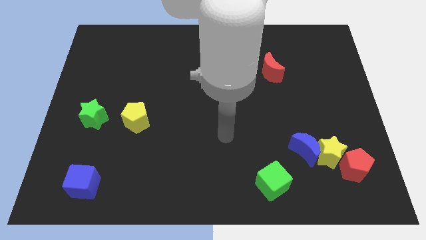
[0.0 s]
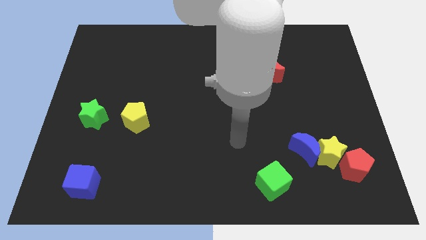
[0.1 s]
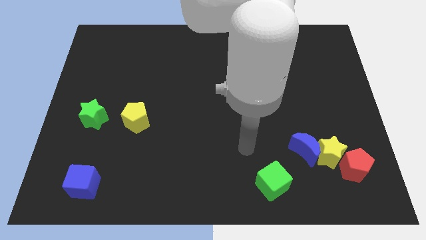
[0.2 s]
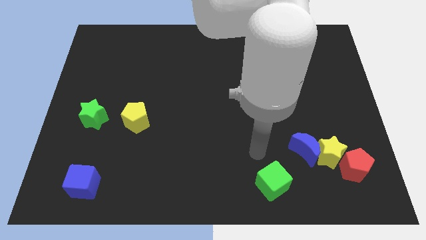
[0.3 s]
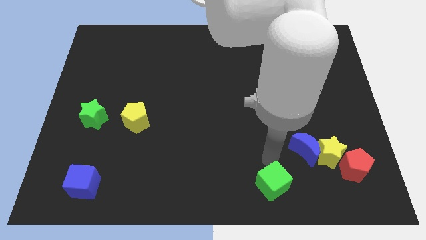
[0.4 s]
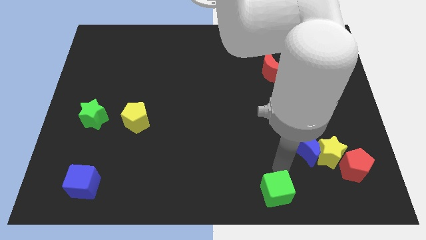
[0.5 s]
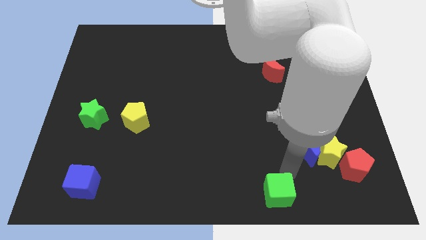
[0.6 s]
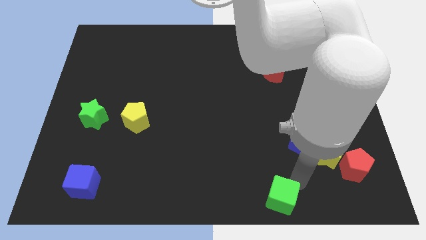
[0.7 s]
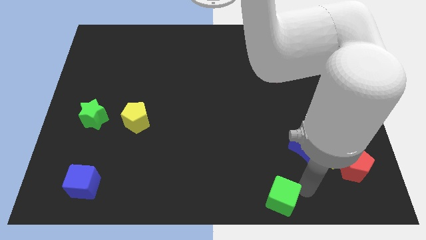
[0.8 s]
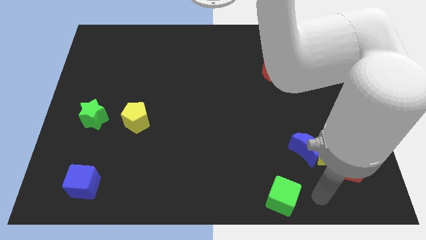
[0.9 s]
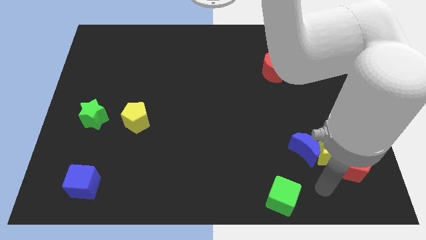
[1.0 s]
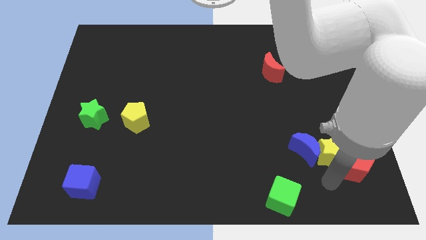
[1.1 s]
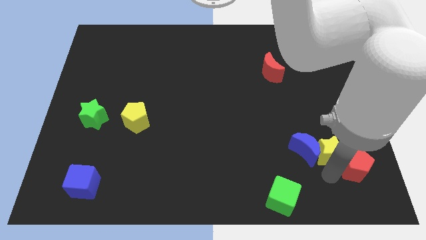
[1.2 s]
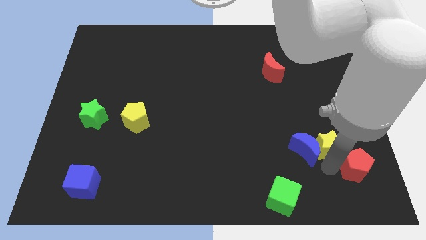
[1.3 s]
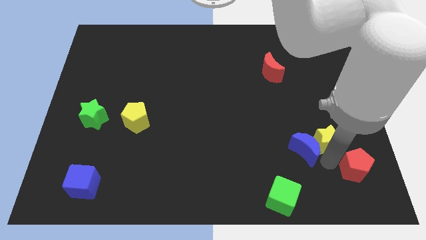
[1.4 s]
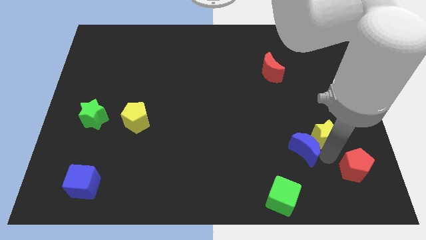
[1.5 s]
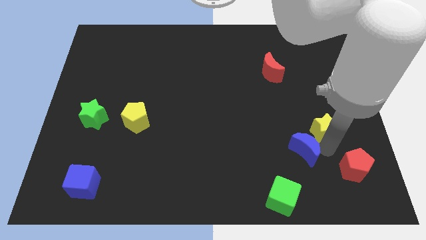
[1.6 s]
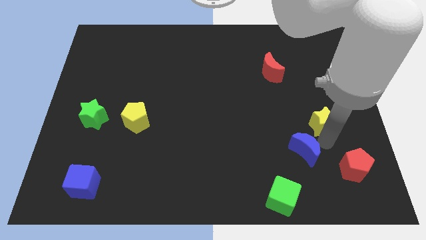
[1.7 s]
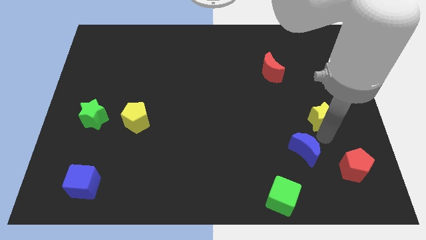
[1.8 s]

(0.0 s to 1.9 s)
pull the yellow star apart from the blue moon and red pentagon

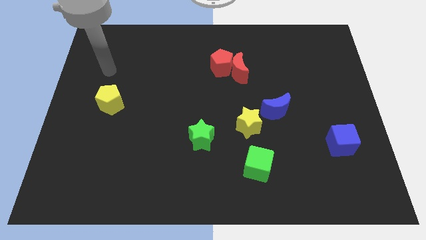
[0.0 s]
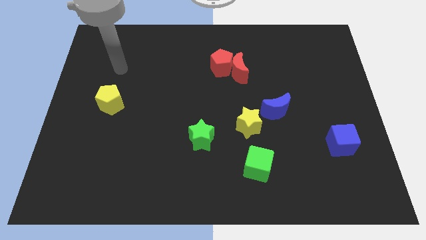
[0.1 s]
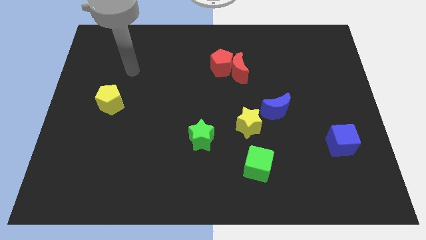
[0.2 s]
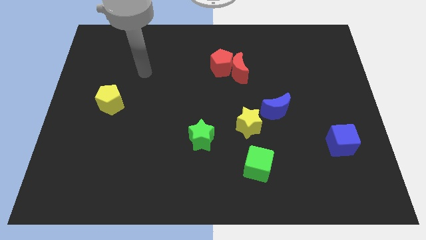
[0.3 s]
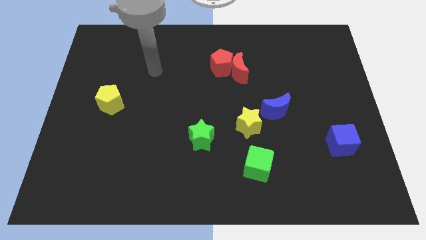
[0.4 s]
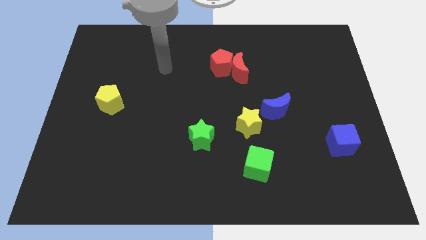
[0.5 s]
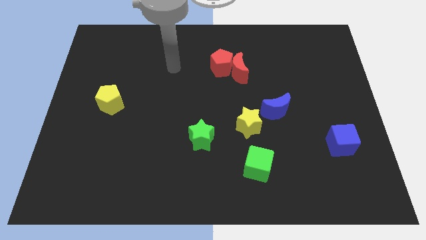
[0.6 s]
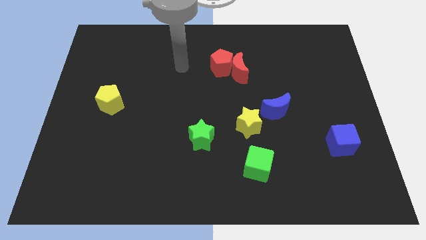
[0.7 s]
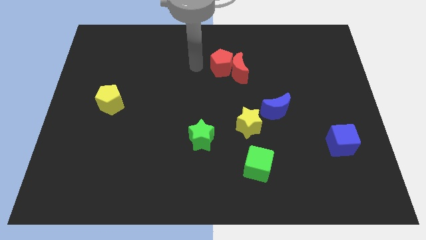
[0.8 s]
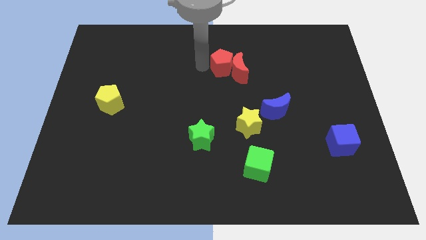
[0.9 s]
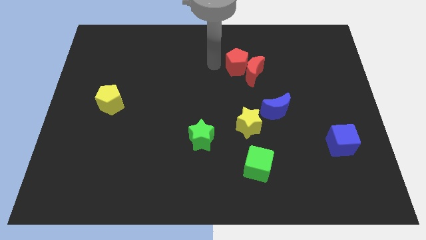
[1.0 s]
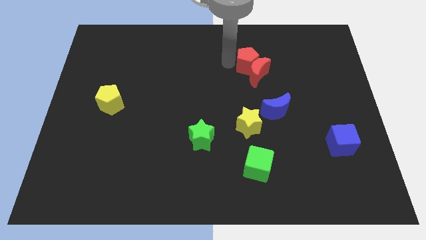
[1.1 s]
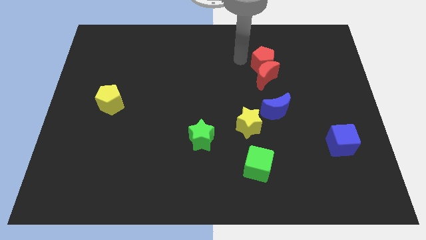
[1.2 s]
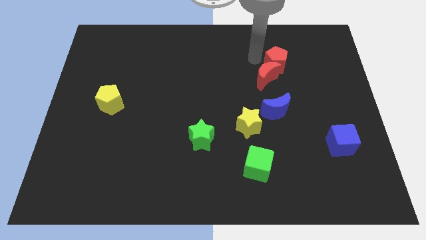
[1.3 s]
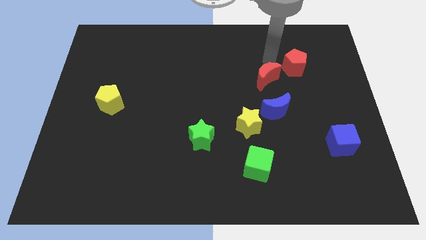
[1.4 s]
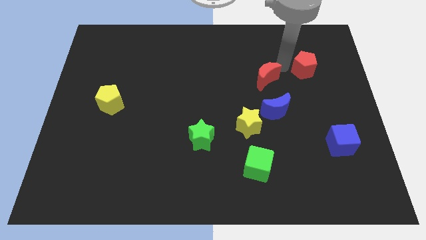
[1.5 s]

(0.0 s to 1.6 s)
move the red moon away from the red pentagon

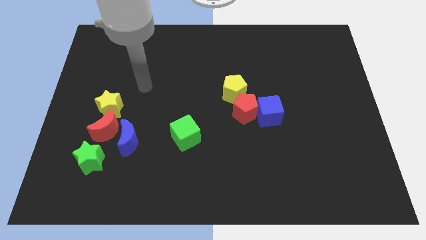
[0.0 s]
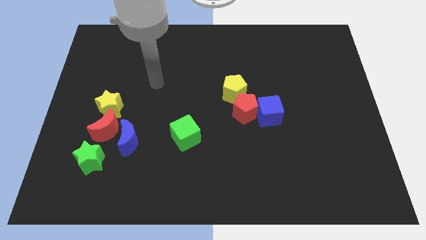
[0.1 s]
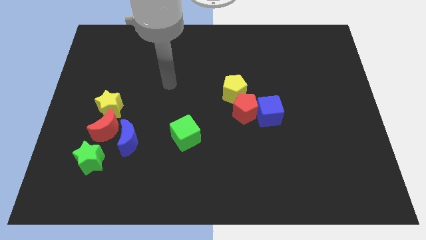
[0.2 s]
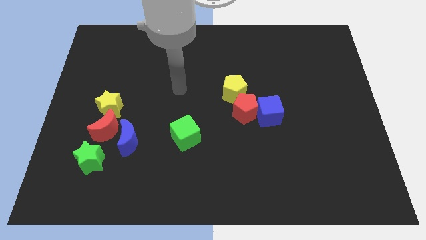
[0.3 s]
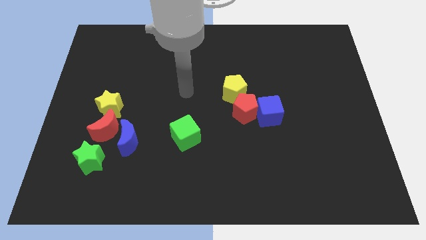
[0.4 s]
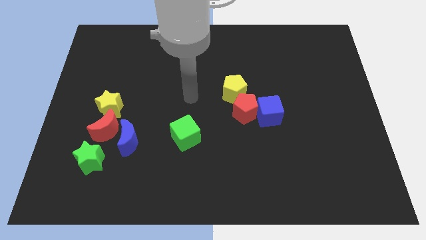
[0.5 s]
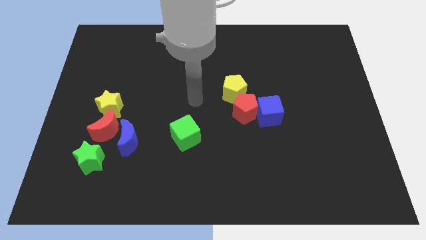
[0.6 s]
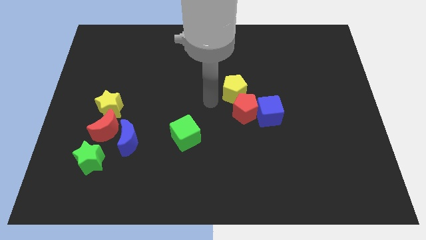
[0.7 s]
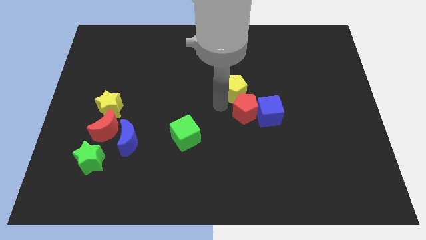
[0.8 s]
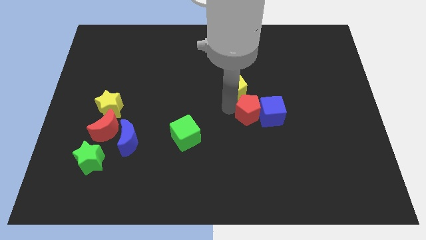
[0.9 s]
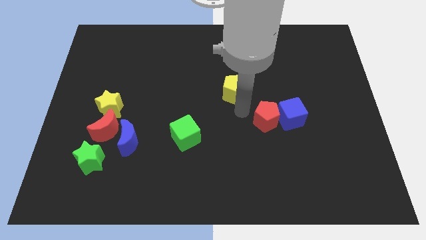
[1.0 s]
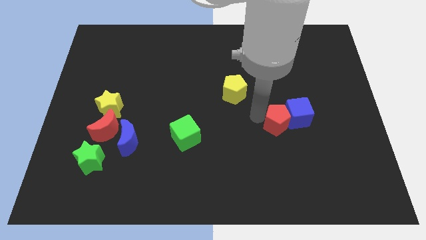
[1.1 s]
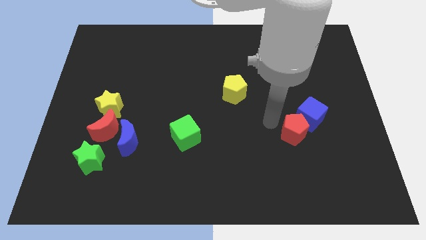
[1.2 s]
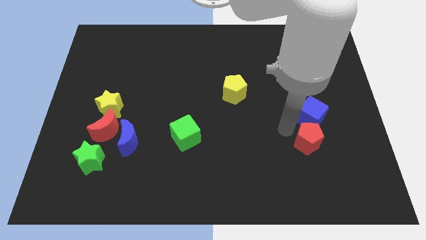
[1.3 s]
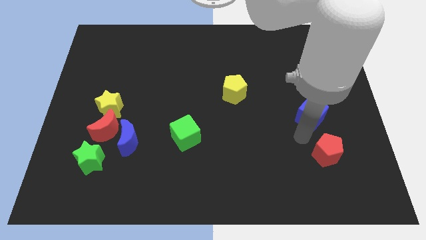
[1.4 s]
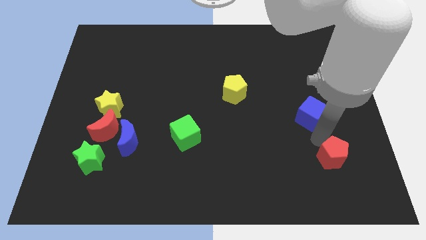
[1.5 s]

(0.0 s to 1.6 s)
separate the blue cube from the red pentagon

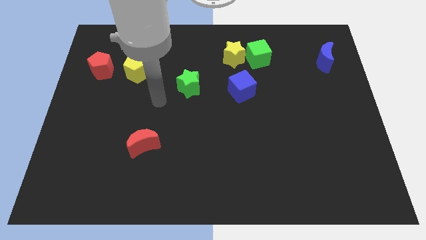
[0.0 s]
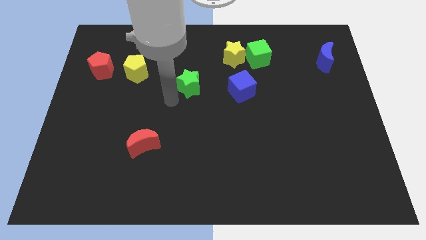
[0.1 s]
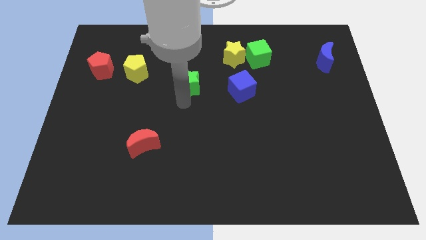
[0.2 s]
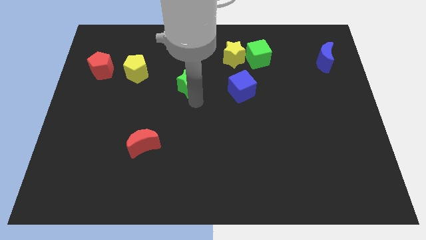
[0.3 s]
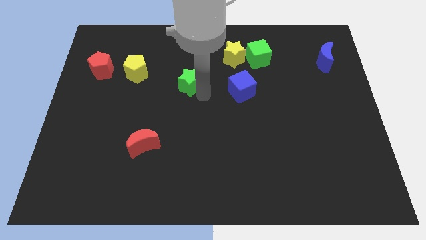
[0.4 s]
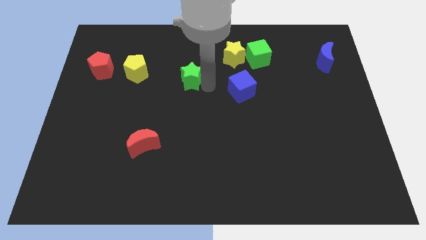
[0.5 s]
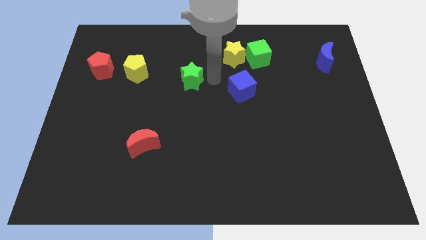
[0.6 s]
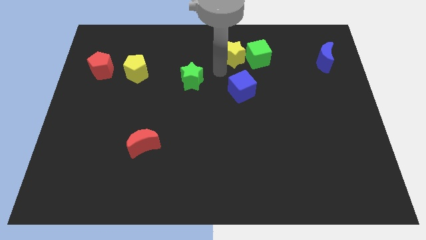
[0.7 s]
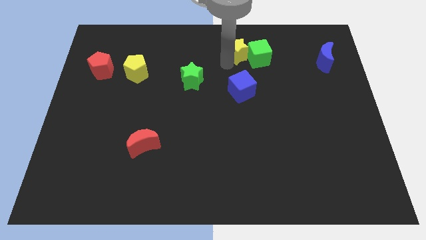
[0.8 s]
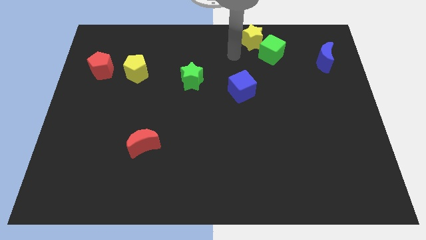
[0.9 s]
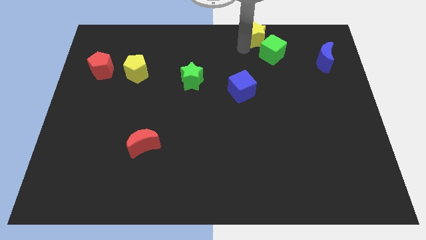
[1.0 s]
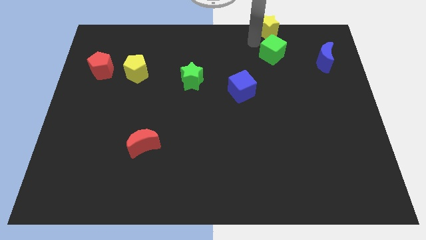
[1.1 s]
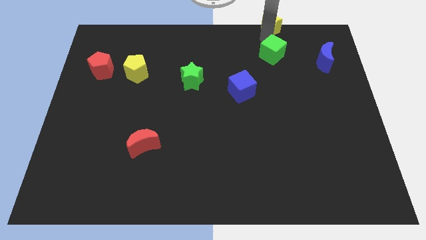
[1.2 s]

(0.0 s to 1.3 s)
separate the green cube from the yellow star

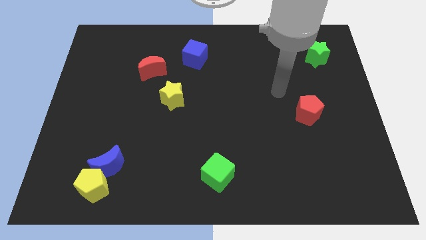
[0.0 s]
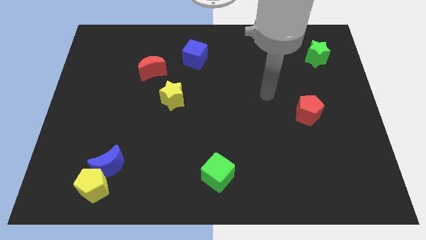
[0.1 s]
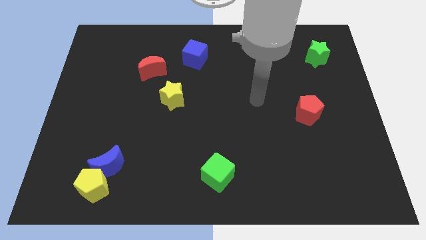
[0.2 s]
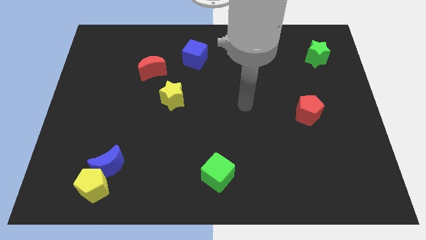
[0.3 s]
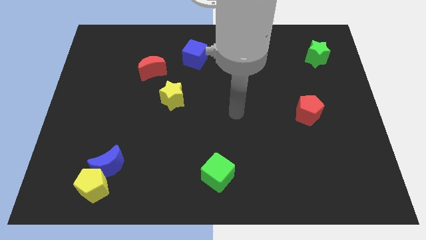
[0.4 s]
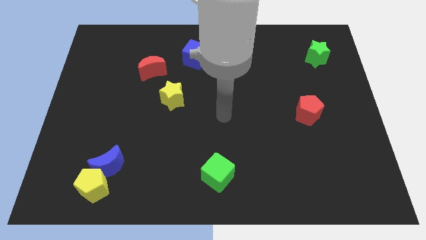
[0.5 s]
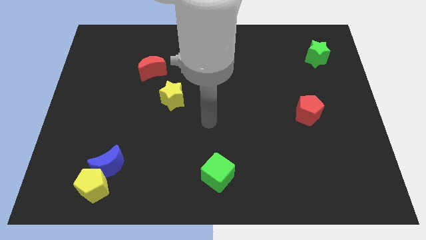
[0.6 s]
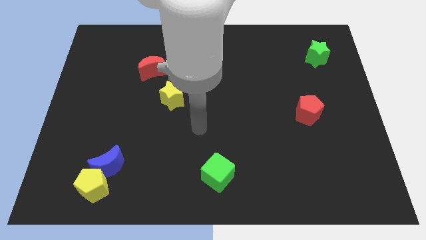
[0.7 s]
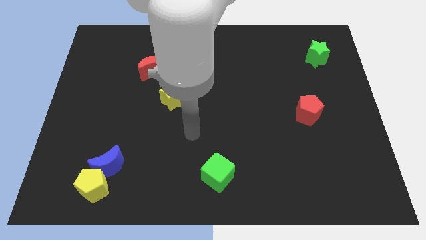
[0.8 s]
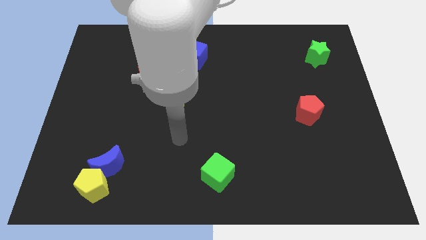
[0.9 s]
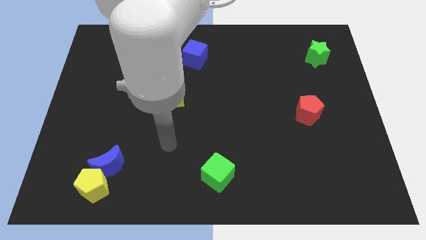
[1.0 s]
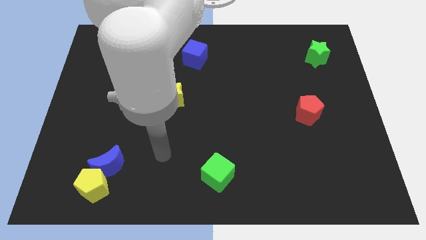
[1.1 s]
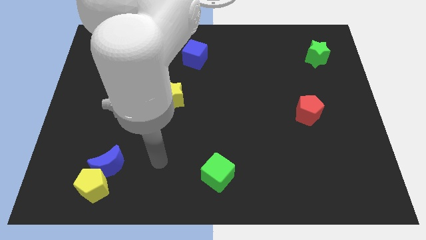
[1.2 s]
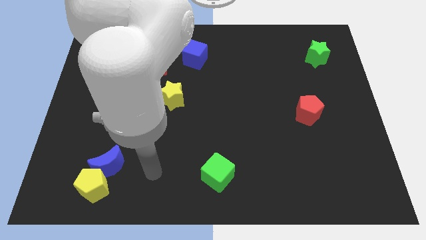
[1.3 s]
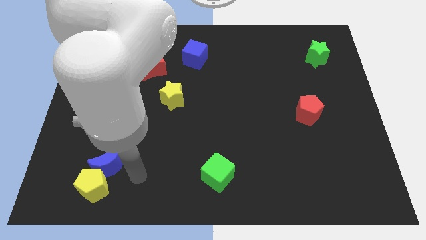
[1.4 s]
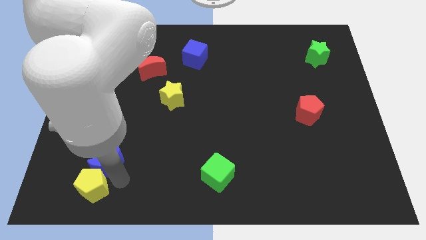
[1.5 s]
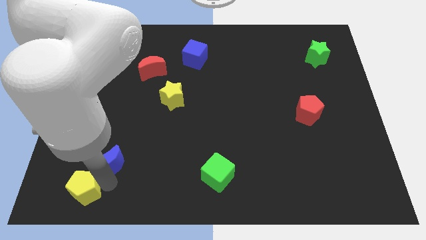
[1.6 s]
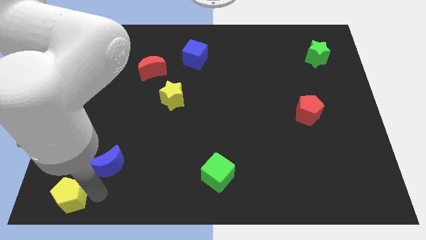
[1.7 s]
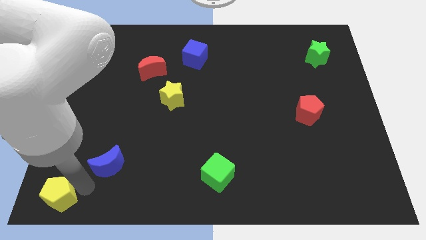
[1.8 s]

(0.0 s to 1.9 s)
pull the blue moon apart from the yellow pentagon

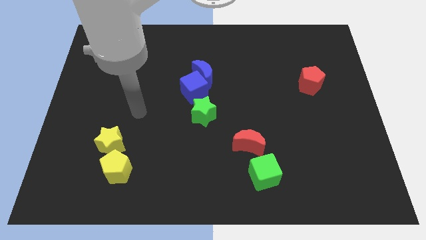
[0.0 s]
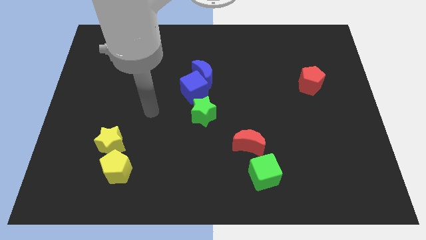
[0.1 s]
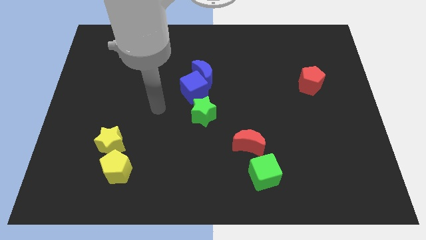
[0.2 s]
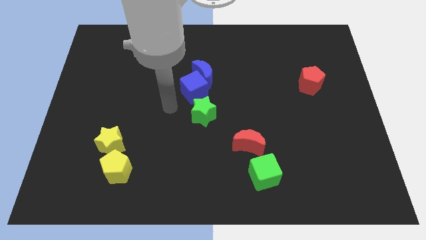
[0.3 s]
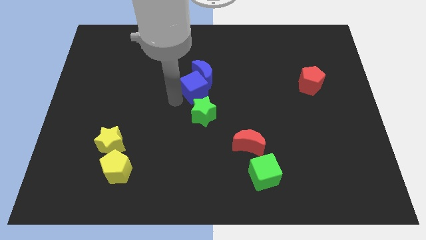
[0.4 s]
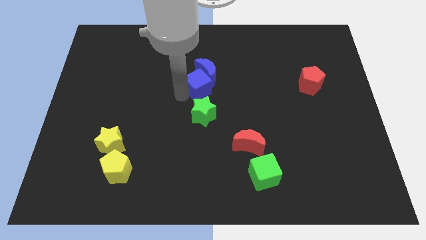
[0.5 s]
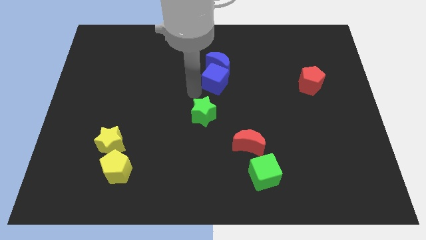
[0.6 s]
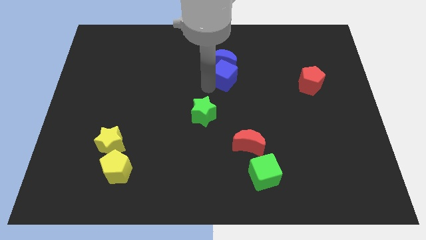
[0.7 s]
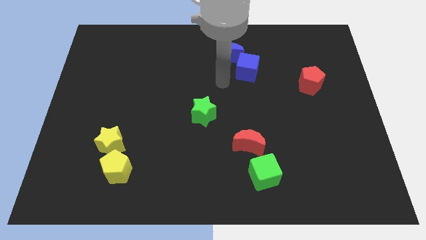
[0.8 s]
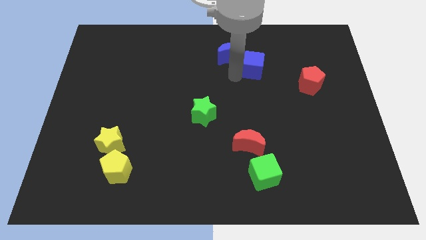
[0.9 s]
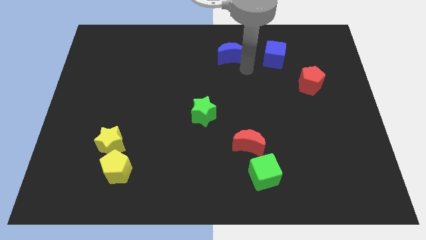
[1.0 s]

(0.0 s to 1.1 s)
move the blue moon away from the blue cube
